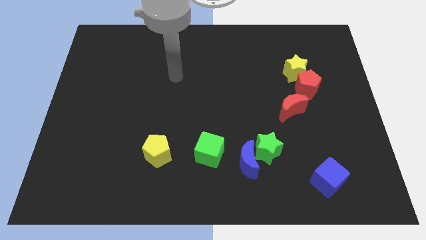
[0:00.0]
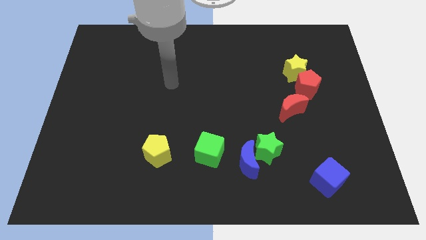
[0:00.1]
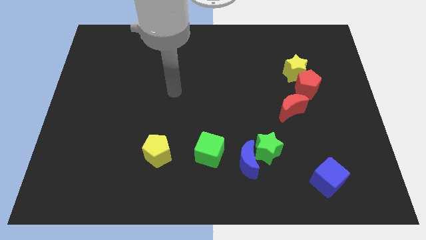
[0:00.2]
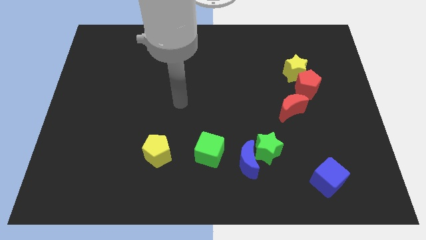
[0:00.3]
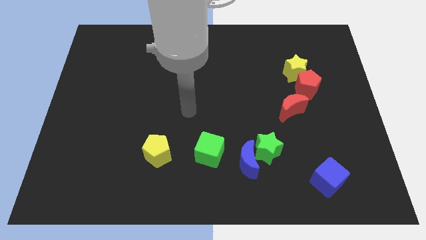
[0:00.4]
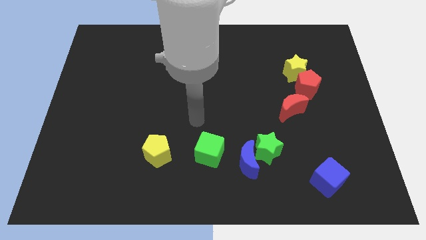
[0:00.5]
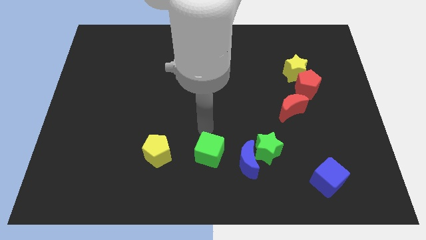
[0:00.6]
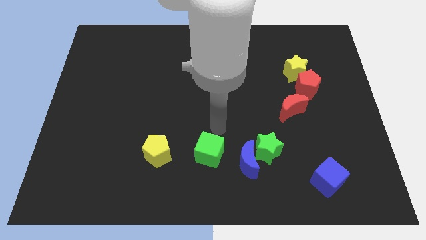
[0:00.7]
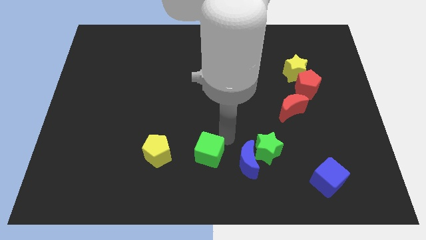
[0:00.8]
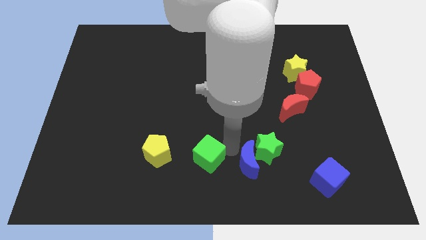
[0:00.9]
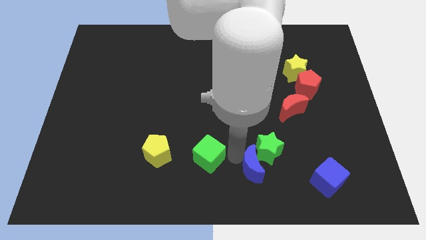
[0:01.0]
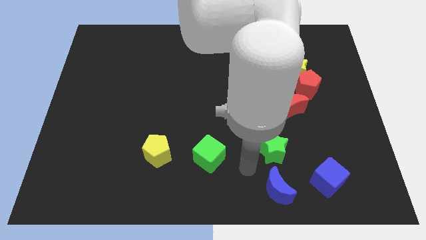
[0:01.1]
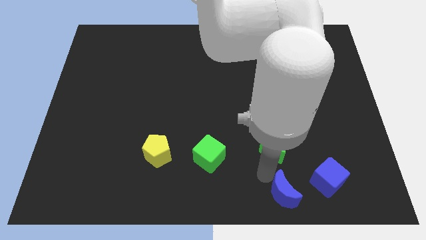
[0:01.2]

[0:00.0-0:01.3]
move the green star away from the blue moon

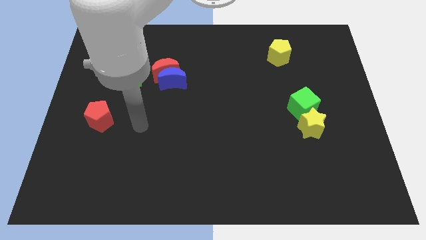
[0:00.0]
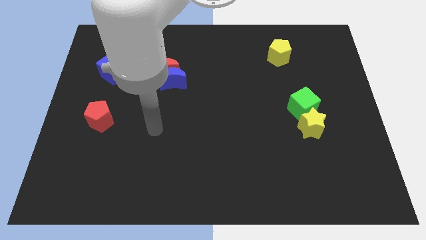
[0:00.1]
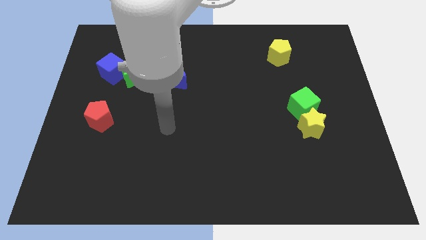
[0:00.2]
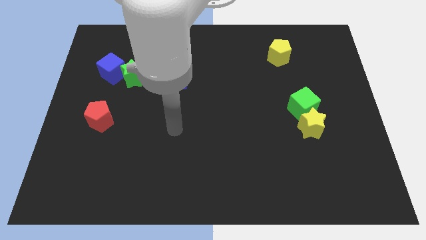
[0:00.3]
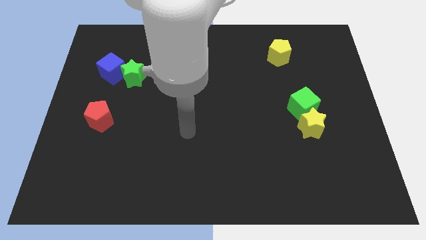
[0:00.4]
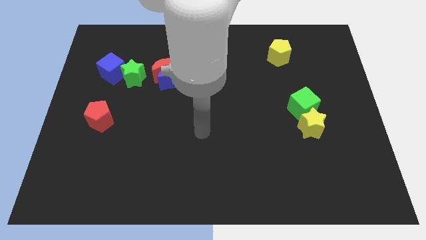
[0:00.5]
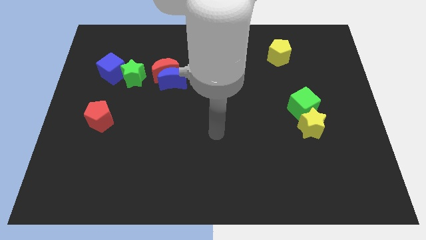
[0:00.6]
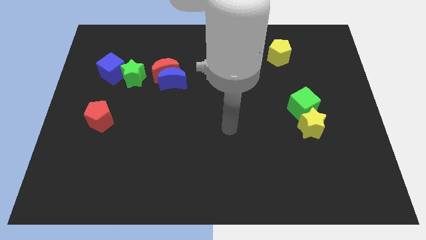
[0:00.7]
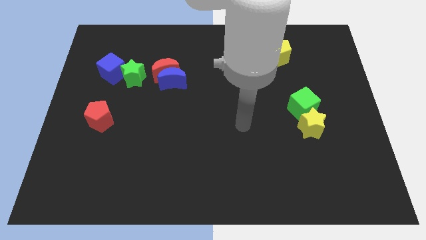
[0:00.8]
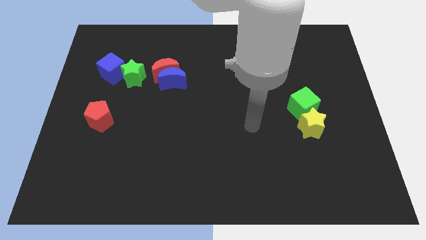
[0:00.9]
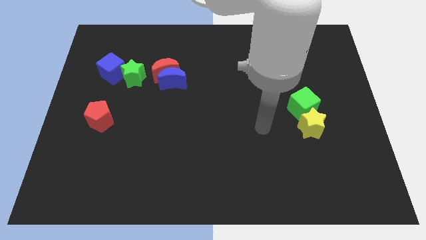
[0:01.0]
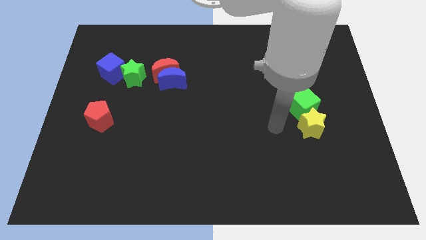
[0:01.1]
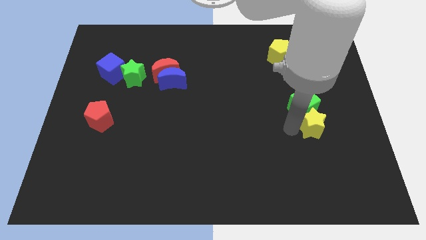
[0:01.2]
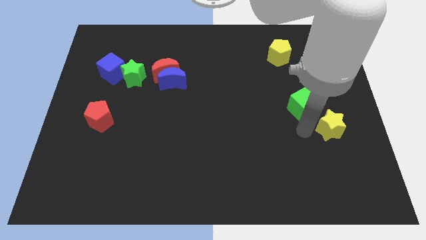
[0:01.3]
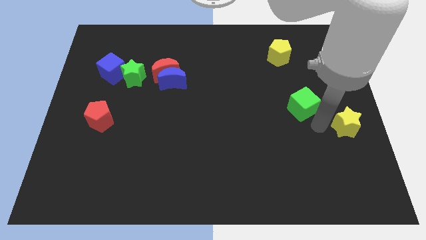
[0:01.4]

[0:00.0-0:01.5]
pull the green cube apart from the yellow star

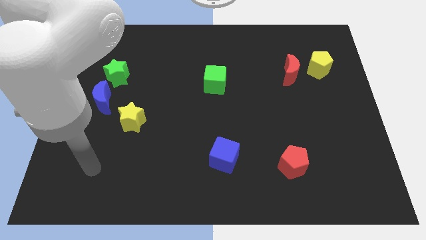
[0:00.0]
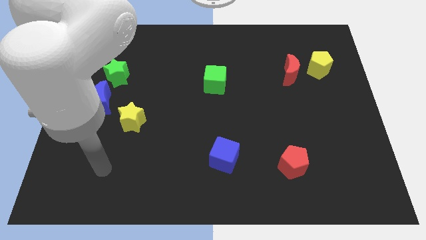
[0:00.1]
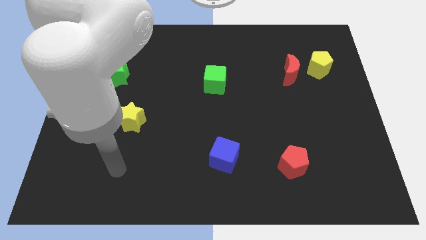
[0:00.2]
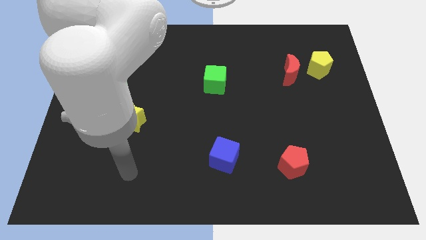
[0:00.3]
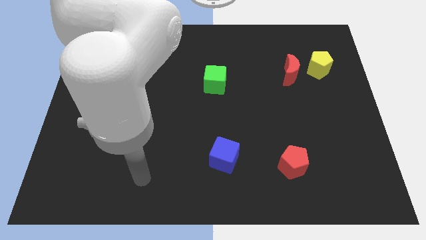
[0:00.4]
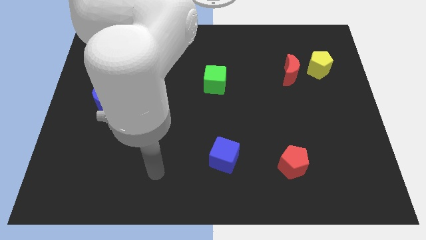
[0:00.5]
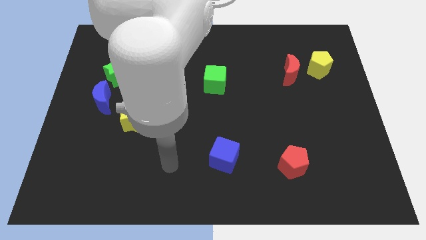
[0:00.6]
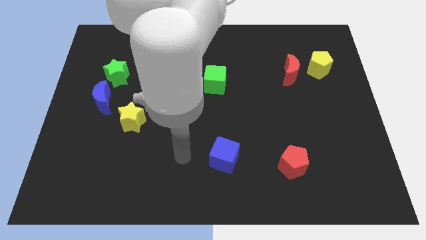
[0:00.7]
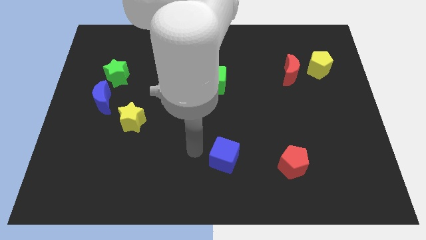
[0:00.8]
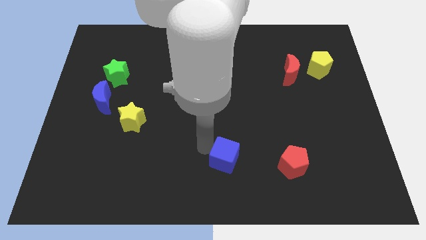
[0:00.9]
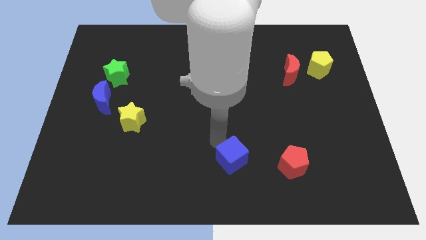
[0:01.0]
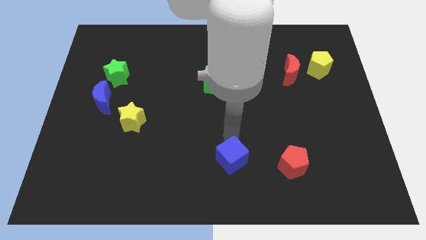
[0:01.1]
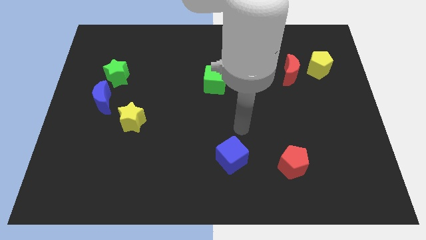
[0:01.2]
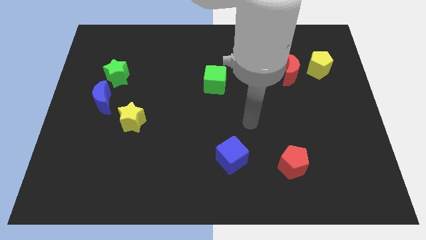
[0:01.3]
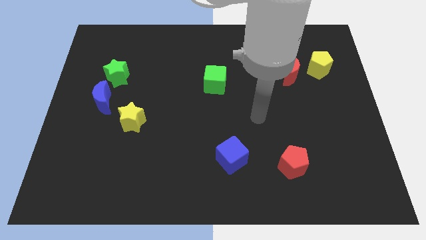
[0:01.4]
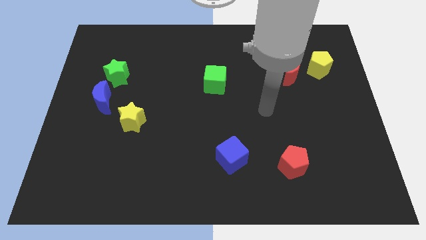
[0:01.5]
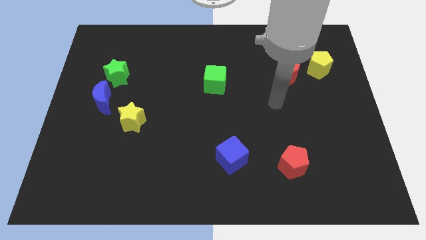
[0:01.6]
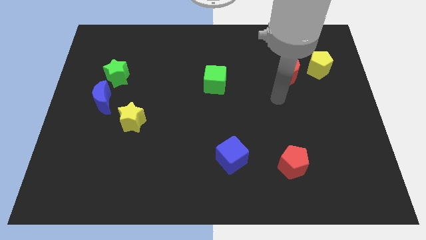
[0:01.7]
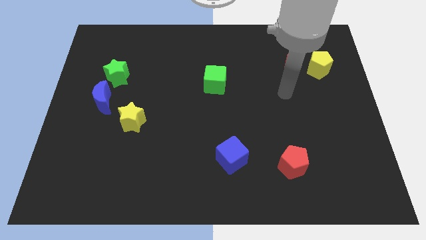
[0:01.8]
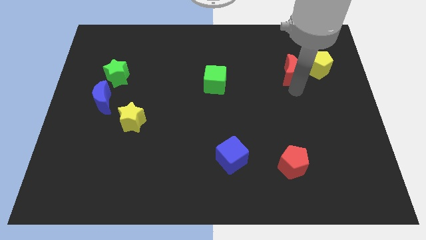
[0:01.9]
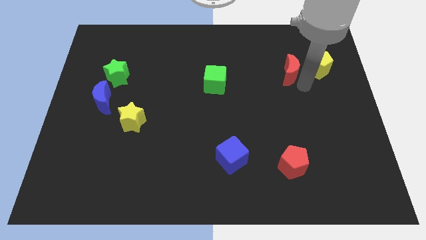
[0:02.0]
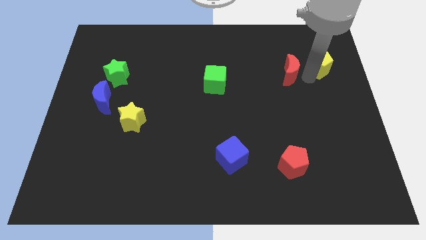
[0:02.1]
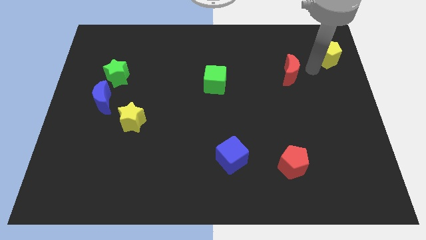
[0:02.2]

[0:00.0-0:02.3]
separate the red moon from the yellow pentagon

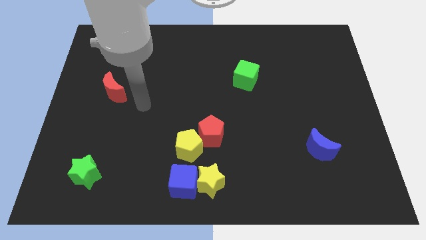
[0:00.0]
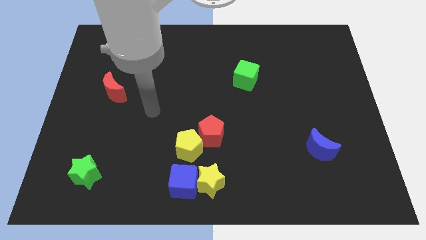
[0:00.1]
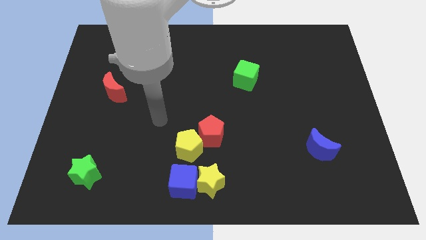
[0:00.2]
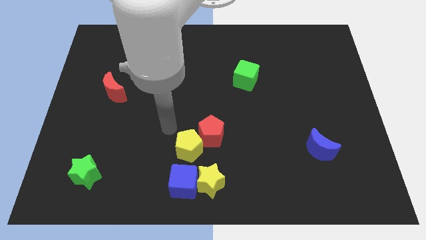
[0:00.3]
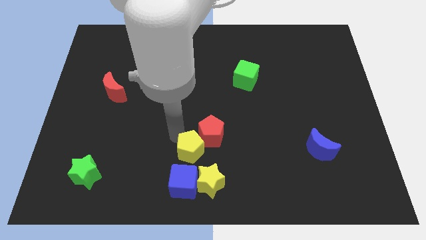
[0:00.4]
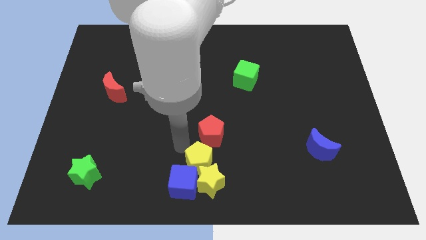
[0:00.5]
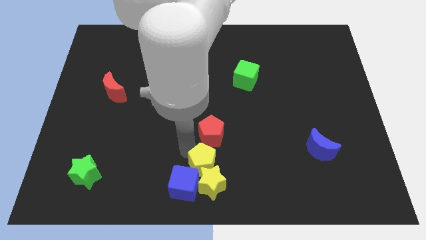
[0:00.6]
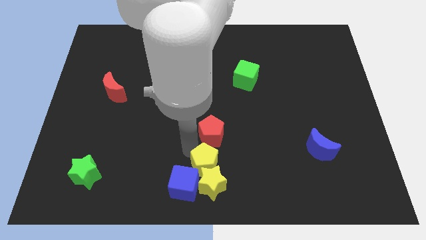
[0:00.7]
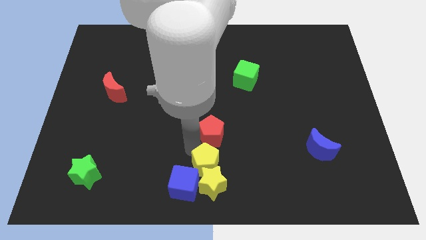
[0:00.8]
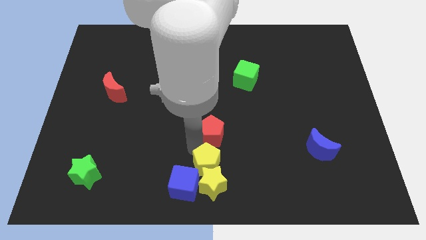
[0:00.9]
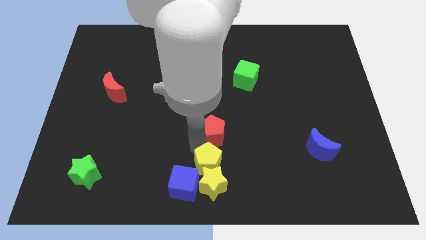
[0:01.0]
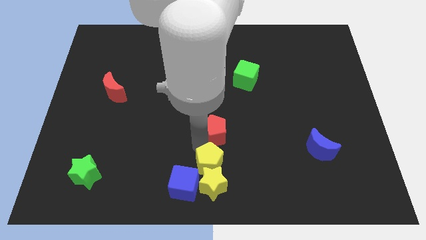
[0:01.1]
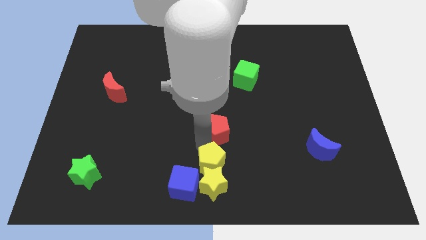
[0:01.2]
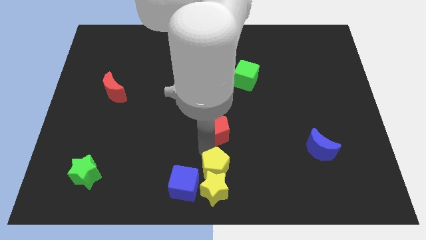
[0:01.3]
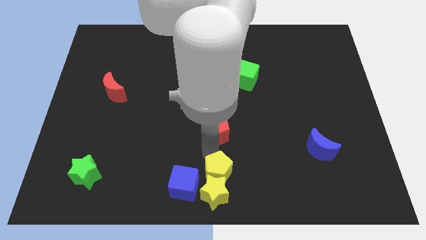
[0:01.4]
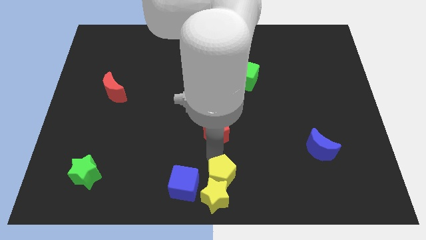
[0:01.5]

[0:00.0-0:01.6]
pull the red pentagon apart from the yellow pentagon

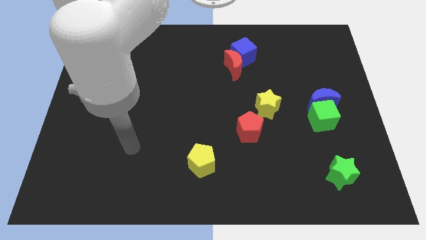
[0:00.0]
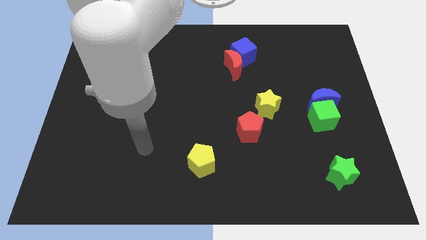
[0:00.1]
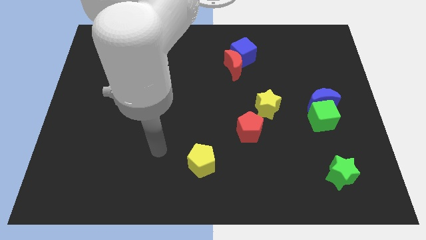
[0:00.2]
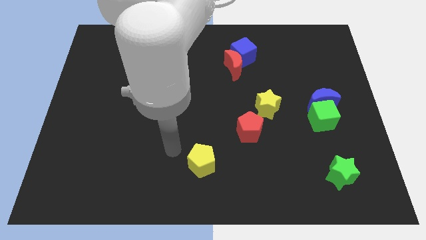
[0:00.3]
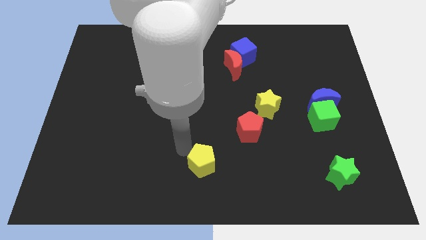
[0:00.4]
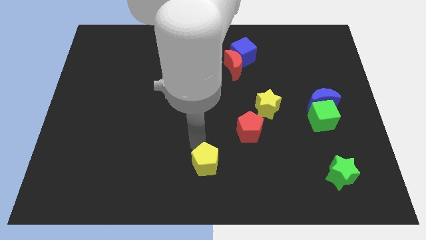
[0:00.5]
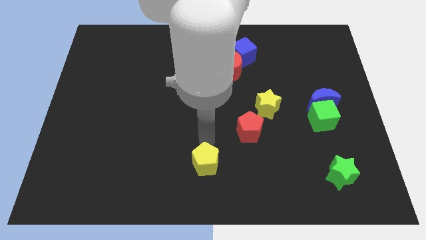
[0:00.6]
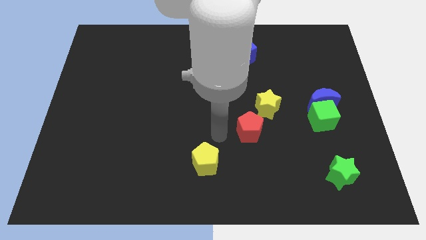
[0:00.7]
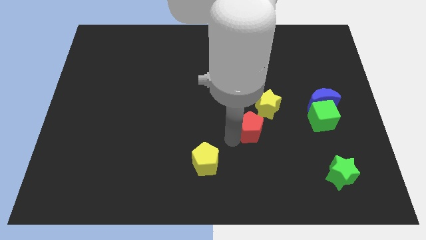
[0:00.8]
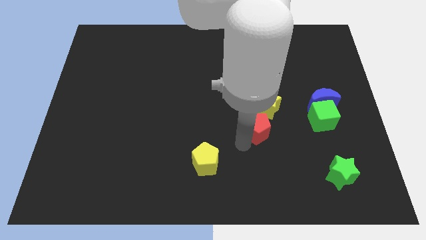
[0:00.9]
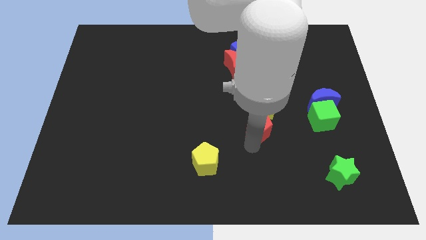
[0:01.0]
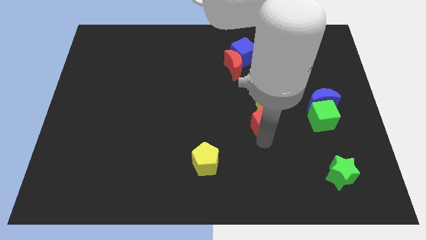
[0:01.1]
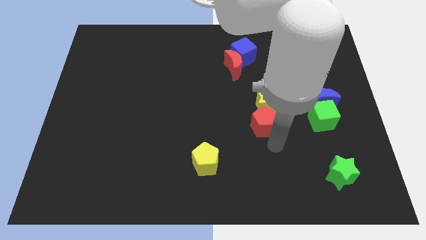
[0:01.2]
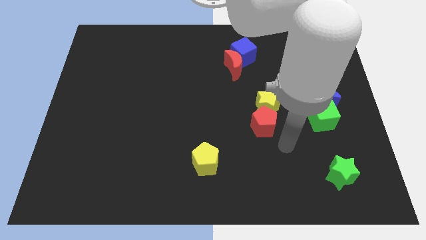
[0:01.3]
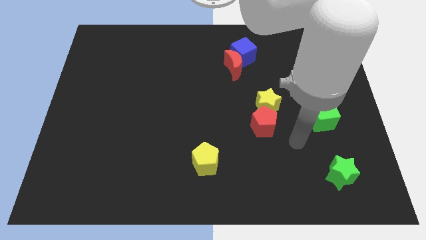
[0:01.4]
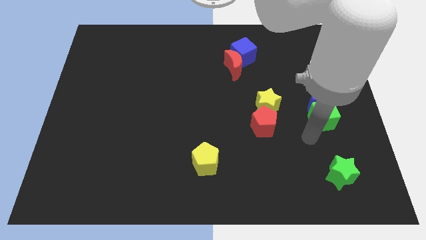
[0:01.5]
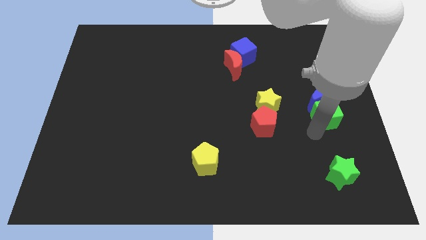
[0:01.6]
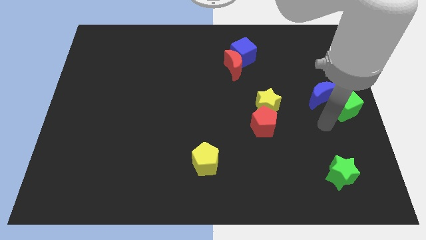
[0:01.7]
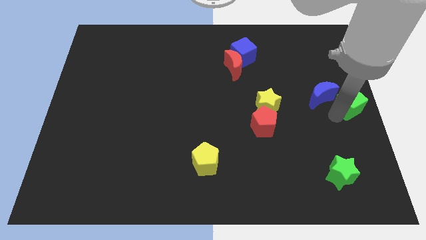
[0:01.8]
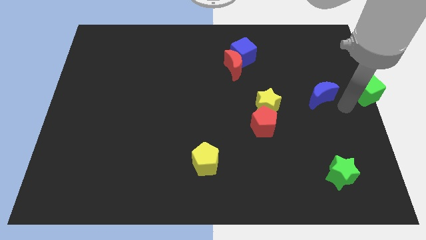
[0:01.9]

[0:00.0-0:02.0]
pull the blue moon apart from the green cube

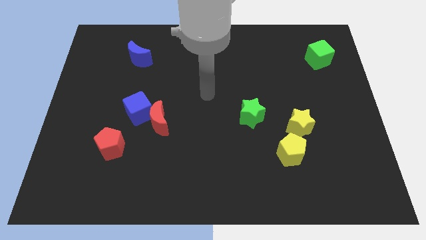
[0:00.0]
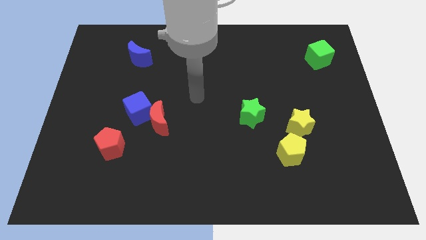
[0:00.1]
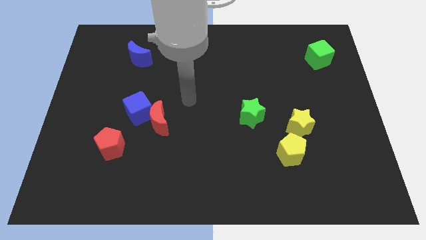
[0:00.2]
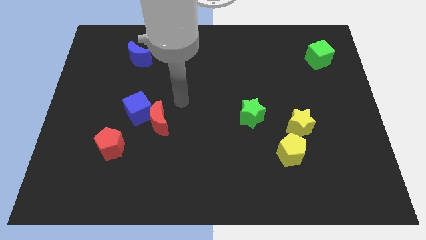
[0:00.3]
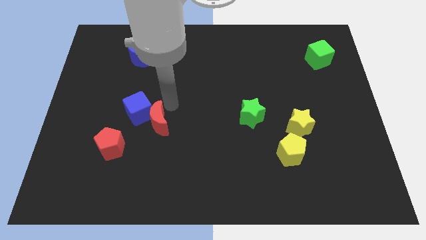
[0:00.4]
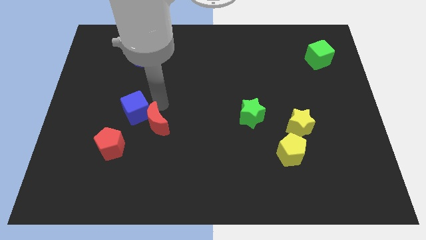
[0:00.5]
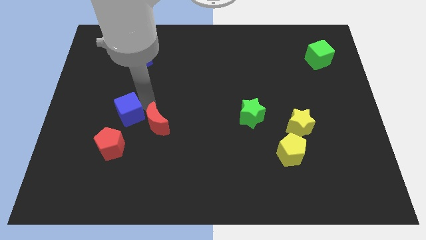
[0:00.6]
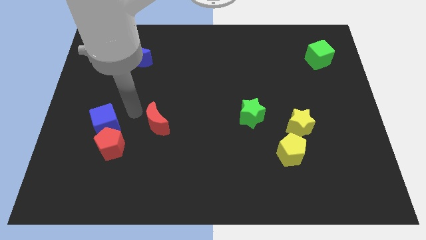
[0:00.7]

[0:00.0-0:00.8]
move the red moon away from the blue cube
